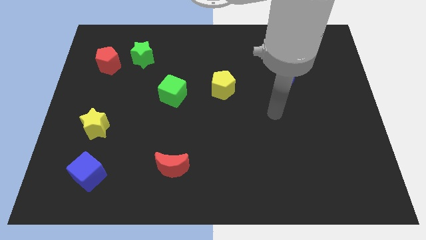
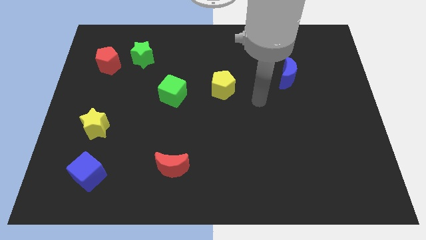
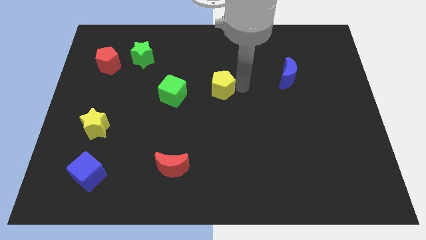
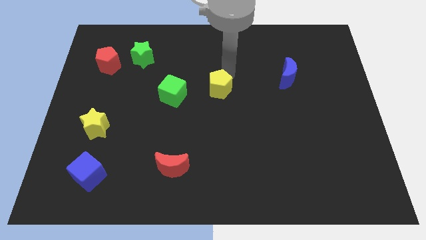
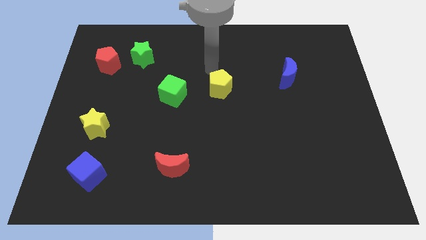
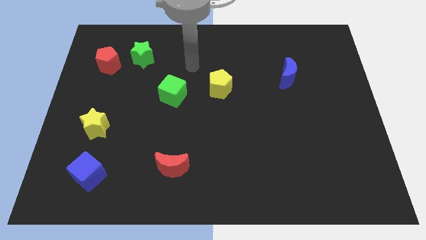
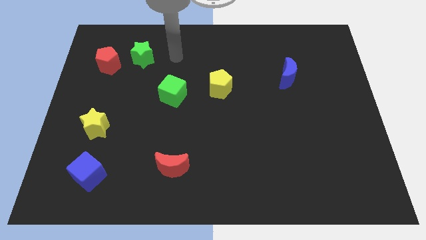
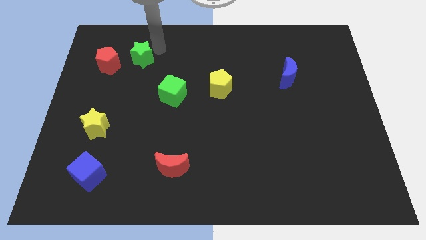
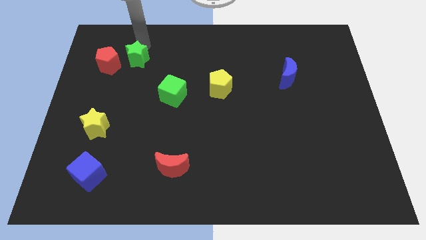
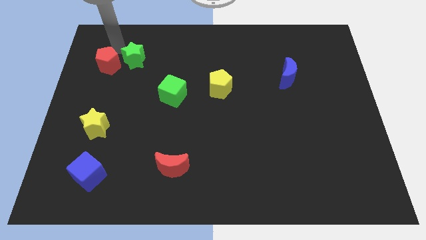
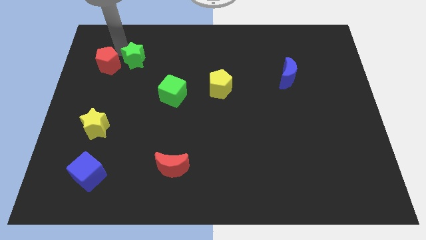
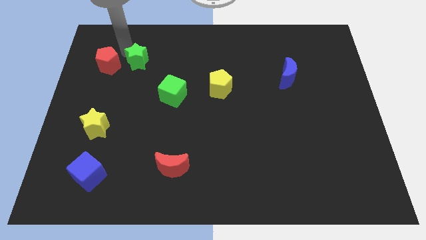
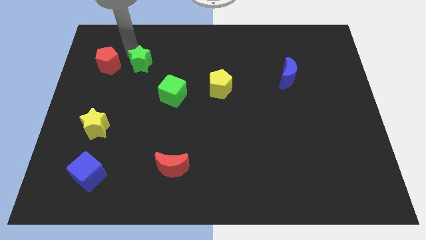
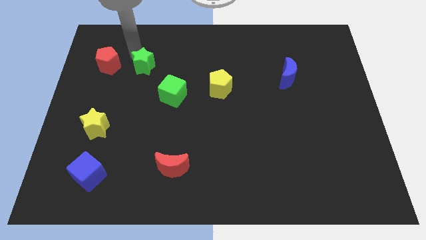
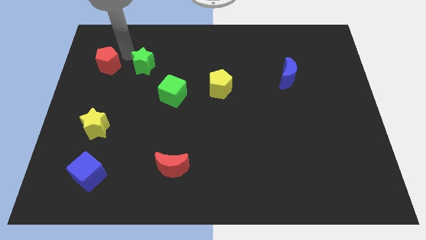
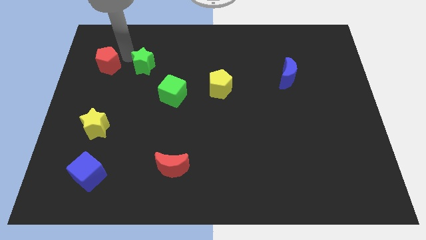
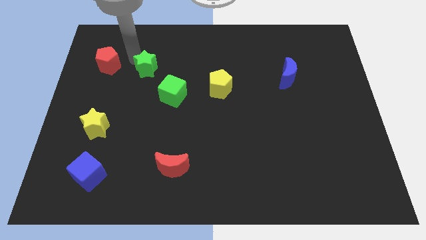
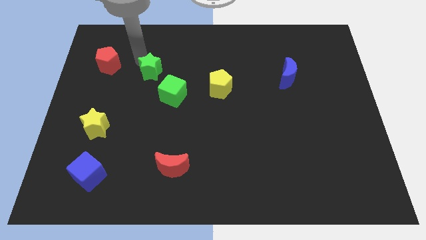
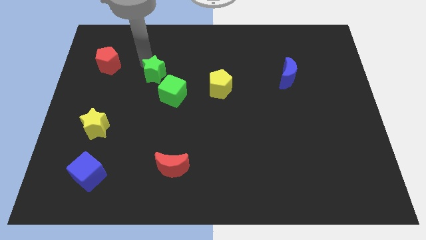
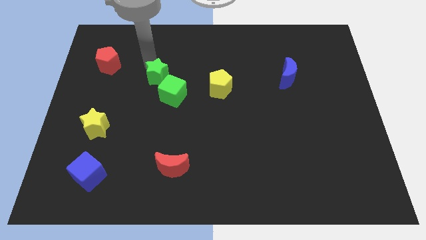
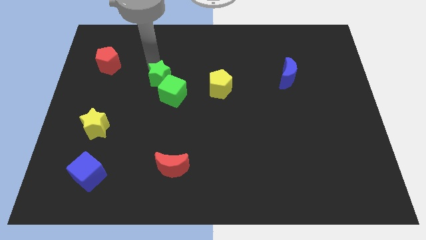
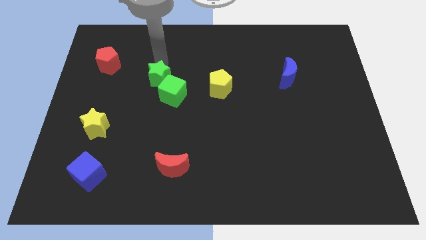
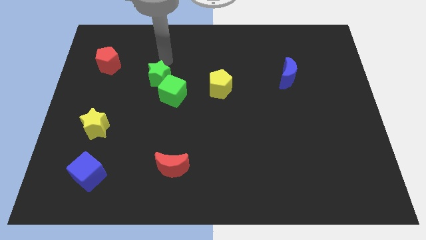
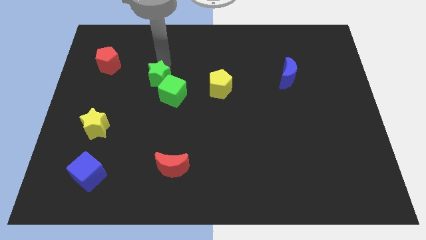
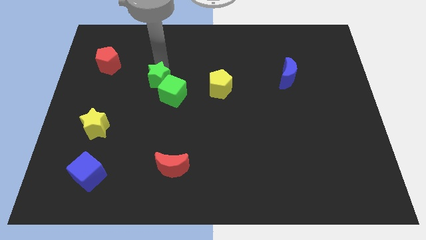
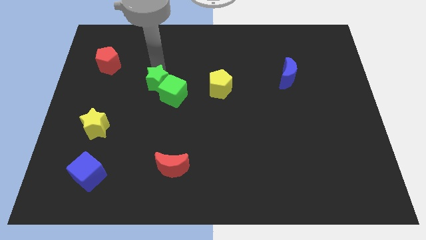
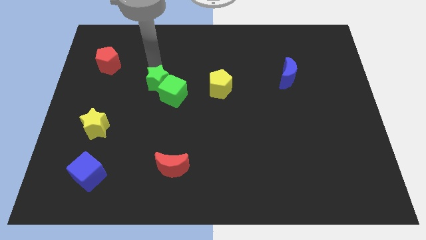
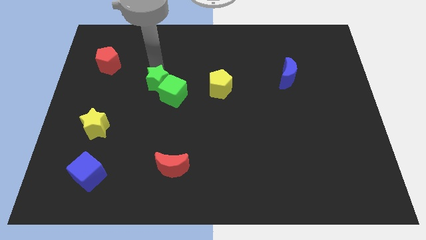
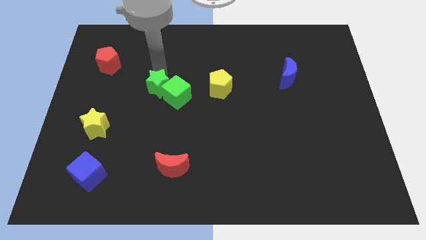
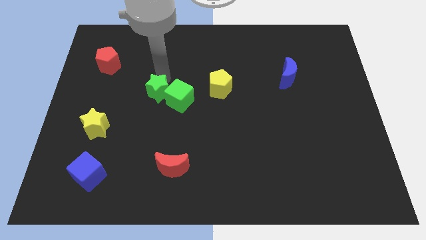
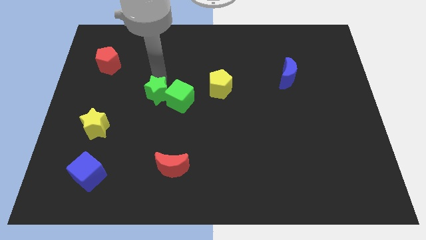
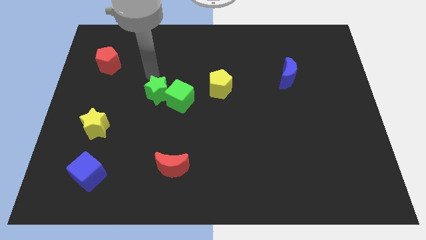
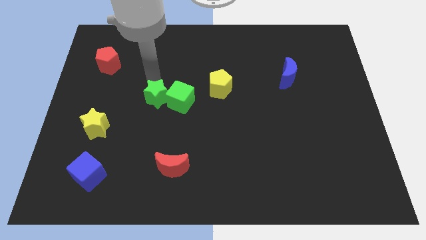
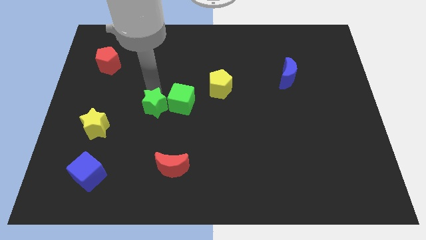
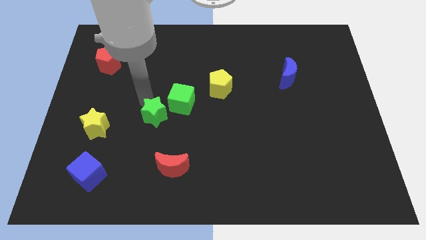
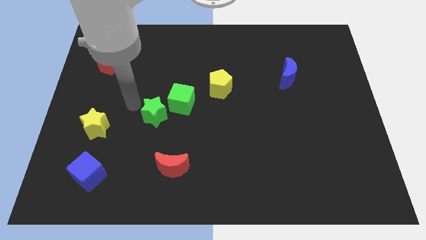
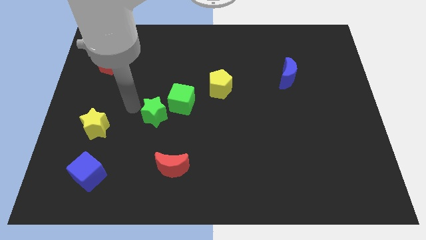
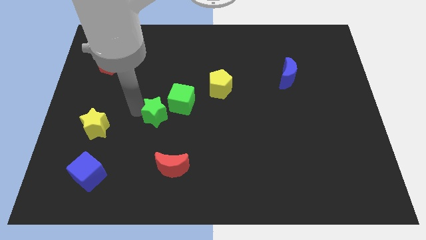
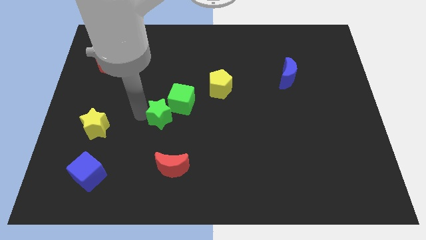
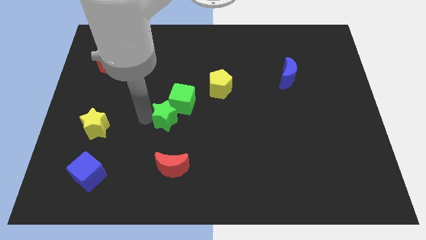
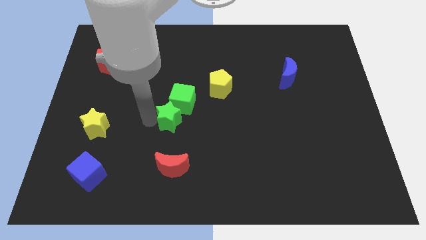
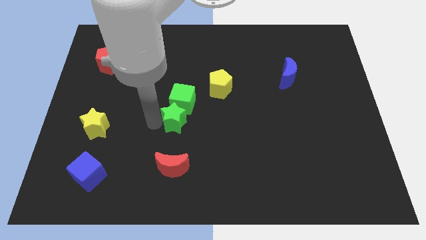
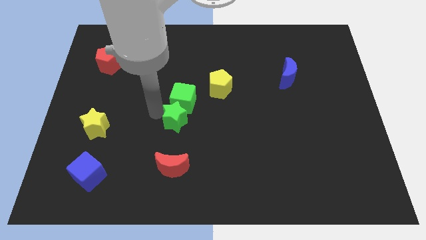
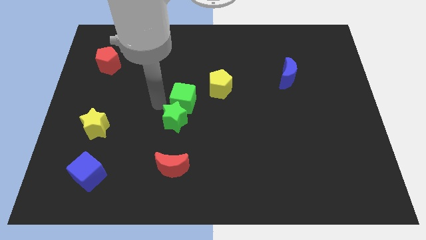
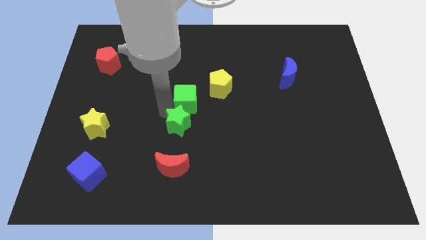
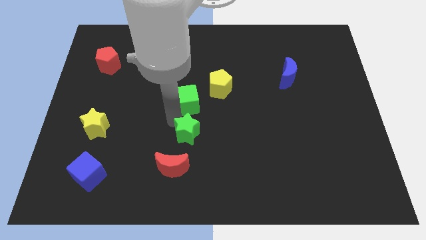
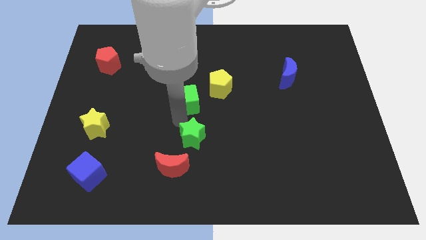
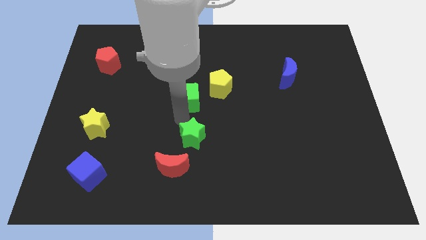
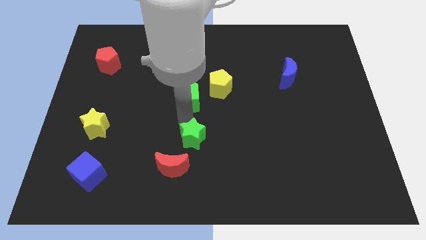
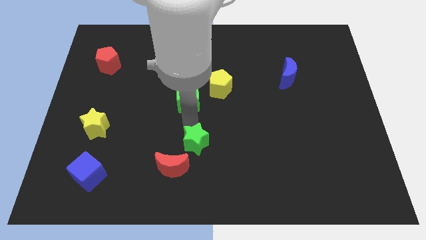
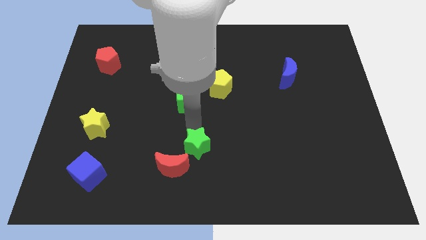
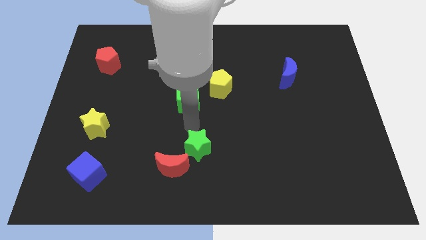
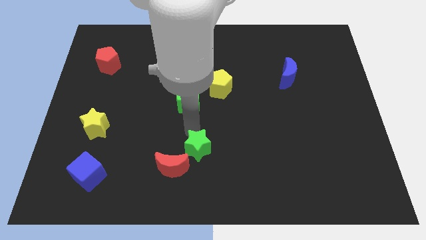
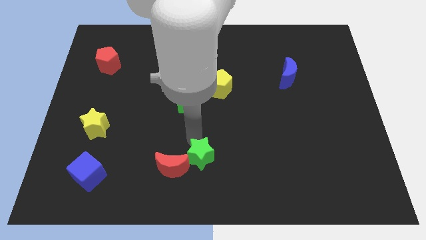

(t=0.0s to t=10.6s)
put the green star to the bottom side

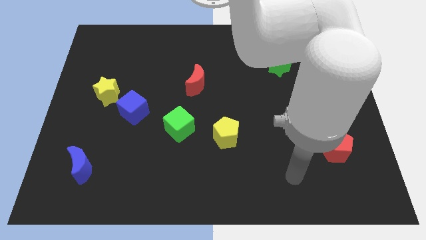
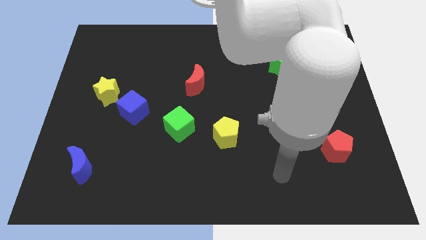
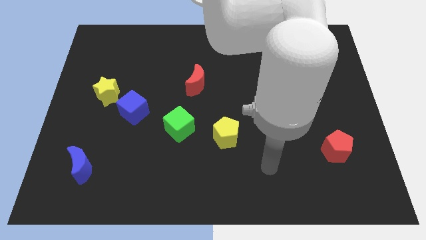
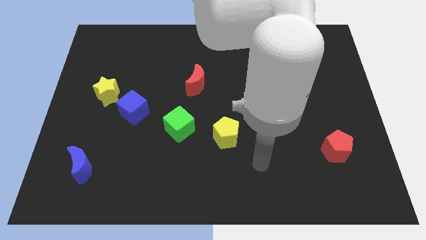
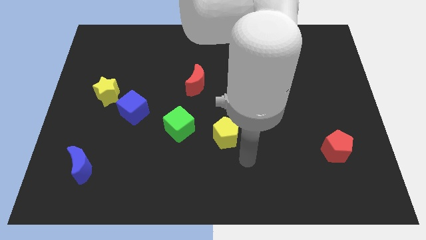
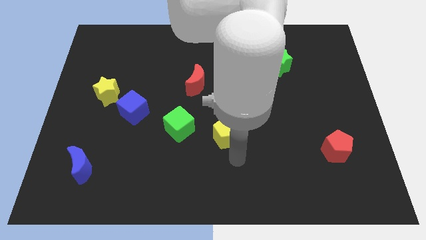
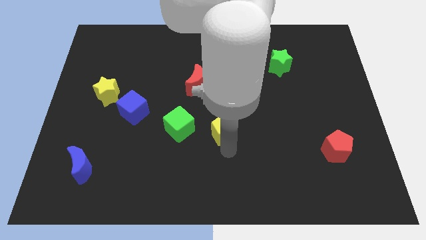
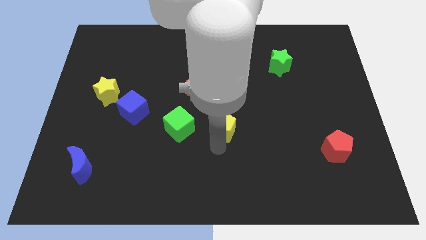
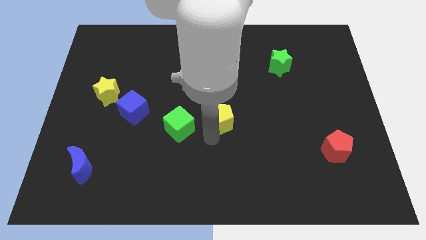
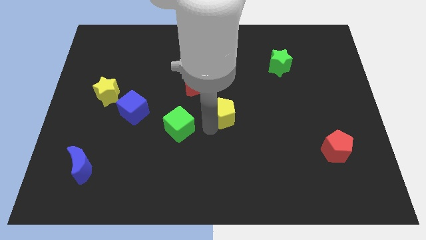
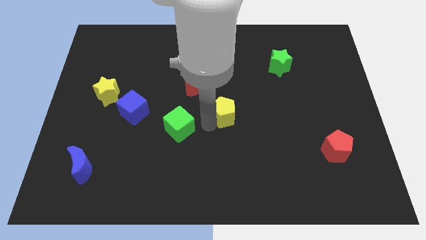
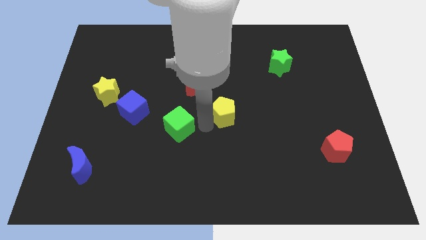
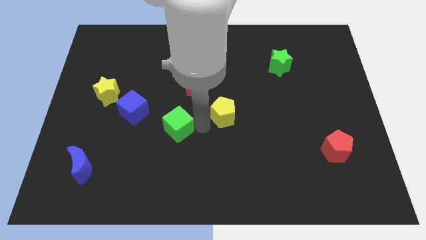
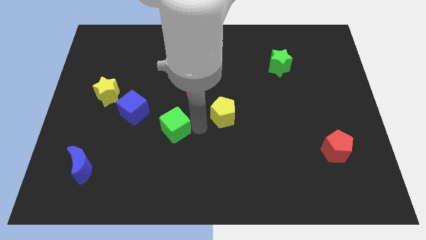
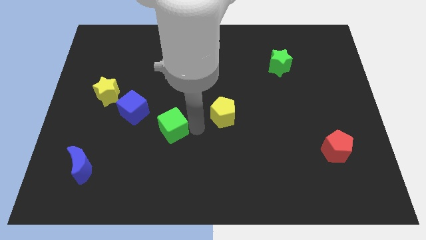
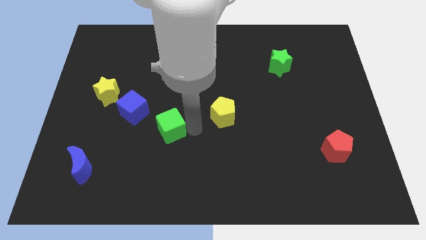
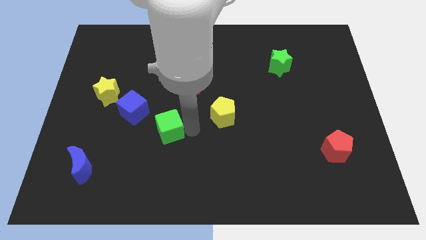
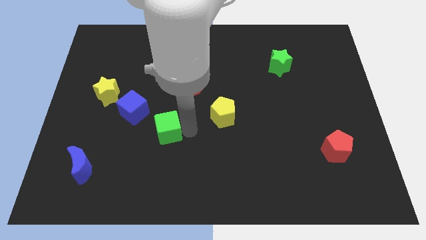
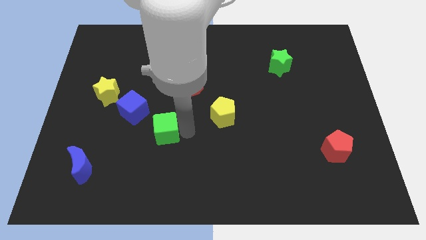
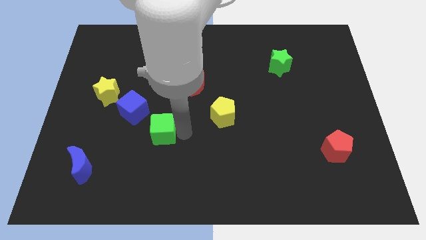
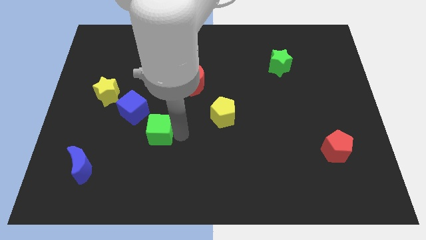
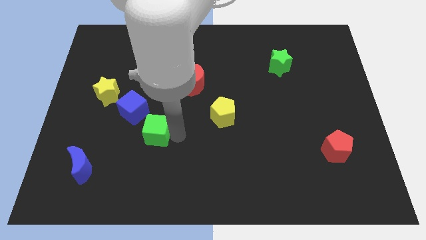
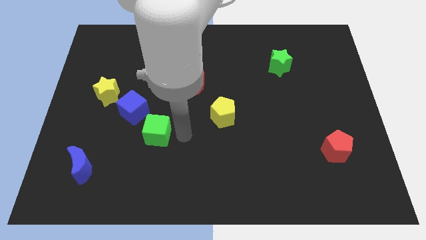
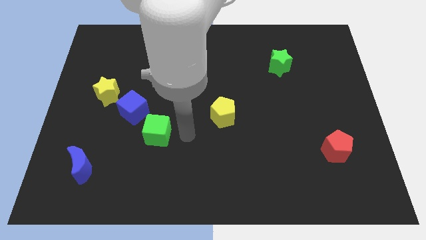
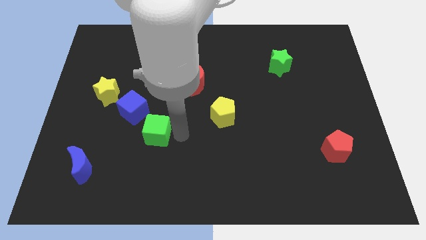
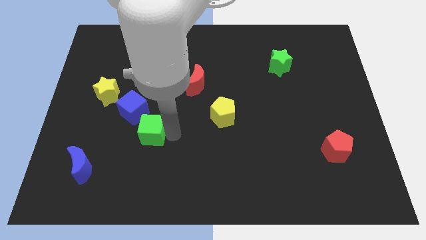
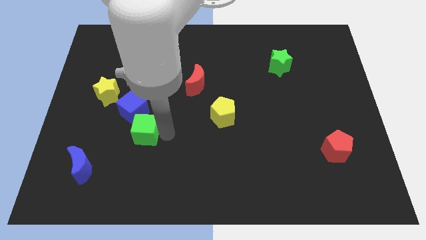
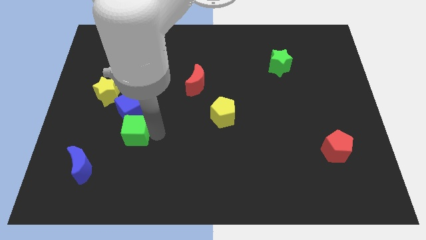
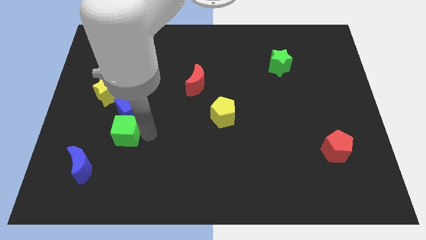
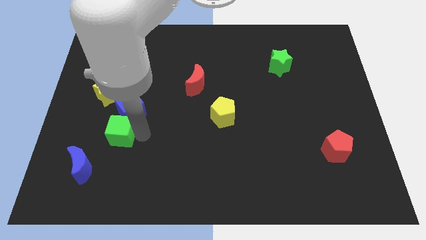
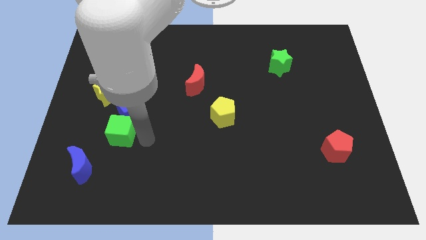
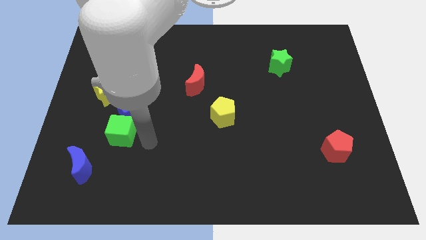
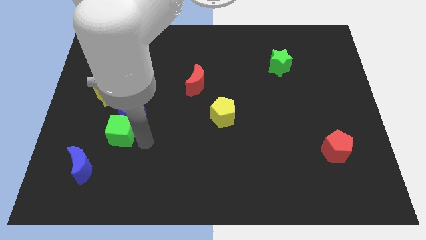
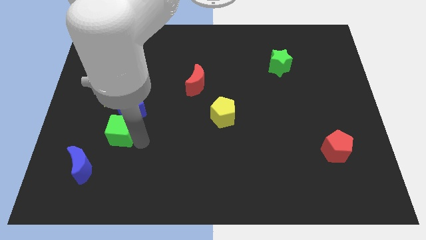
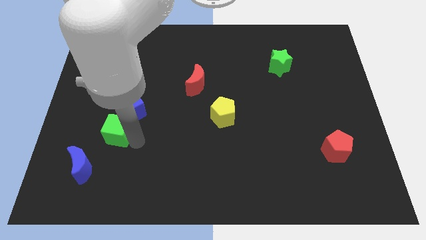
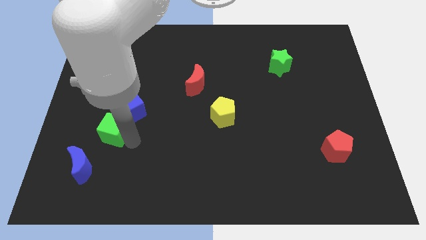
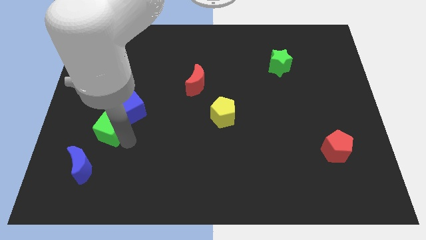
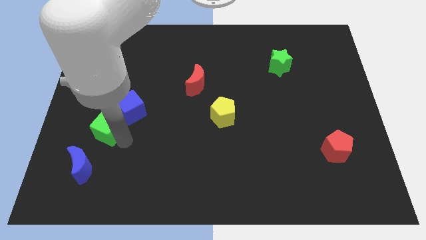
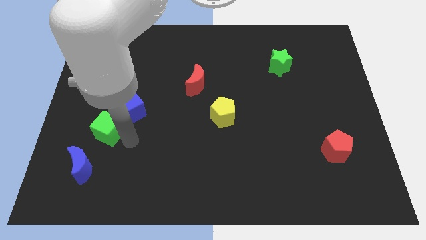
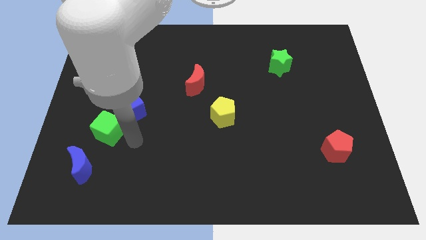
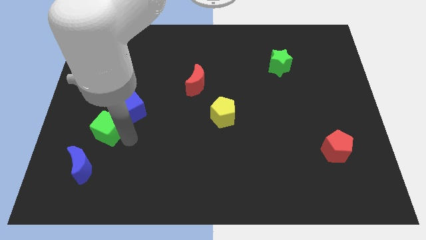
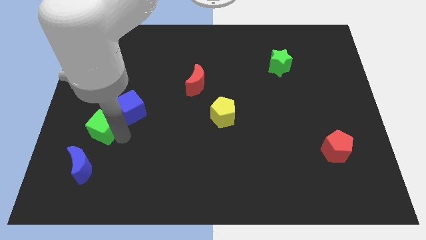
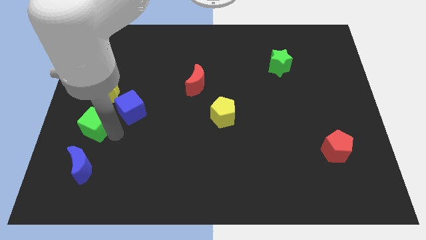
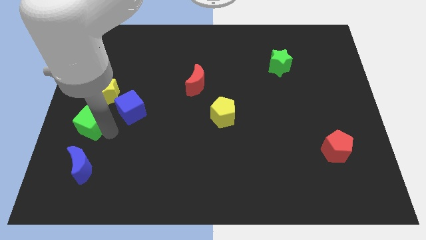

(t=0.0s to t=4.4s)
move the green cube to the center left
